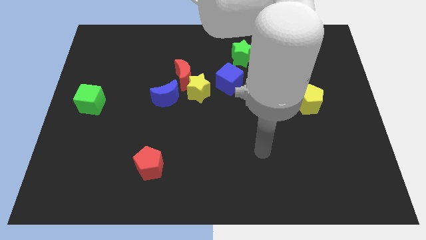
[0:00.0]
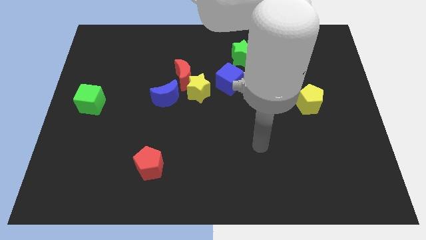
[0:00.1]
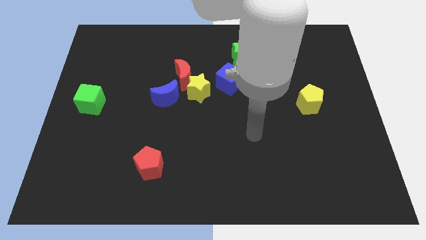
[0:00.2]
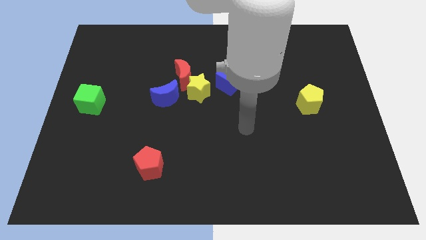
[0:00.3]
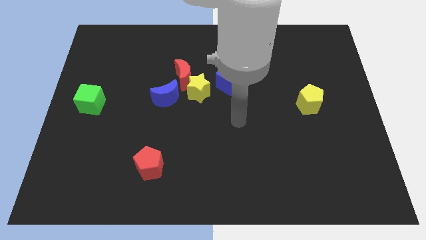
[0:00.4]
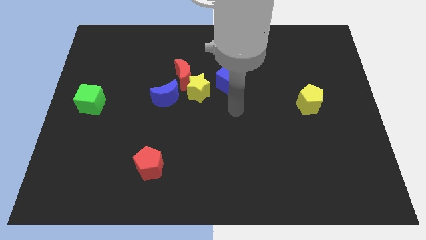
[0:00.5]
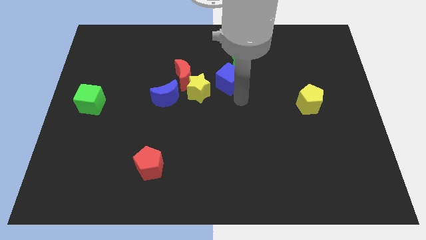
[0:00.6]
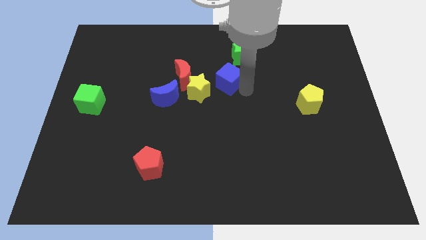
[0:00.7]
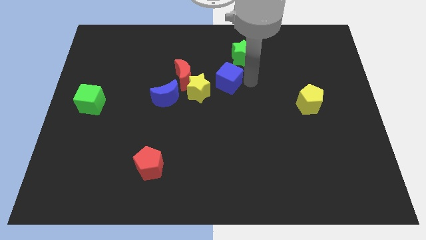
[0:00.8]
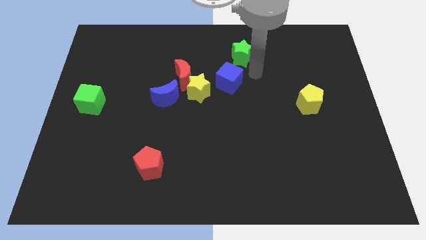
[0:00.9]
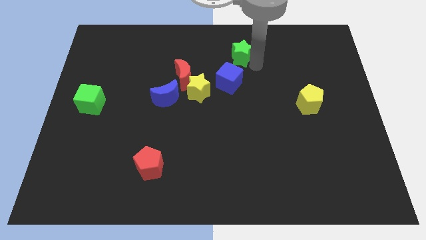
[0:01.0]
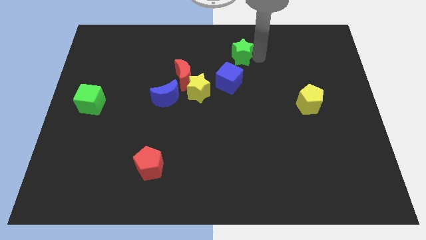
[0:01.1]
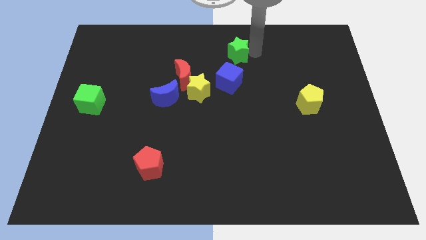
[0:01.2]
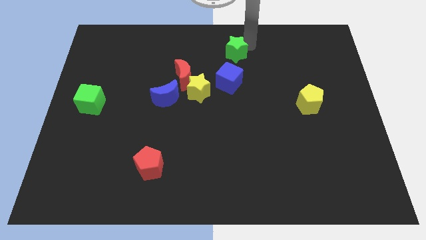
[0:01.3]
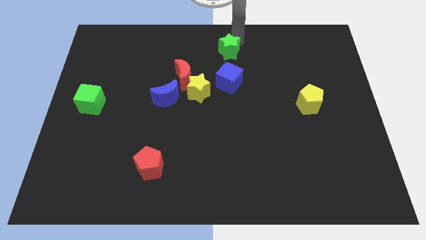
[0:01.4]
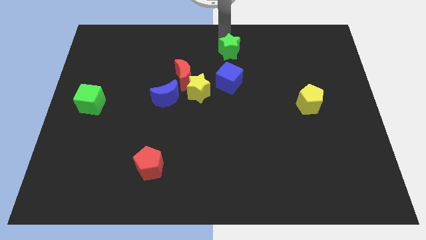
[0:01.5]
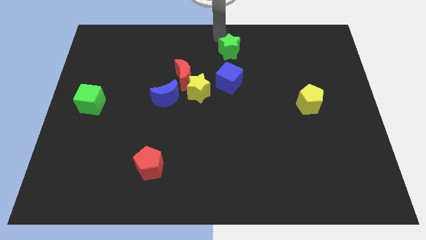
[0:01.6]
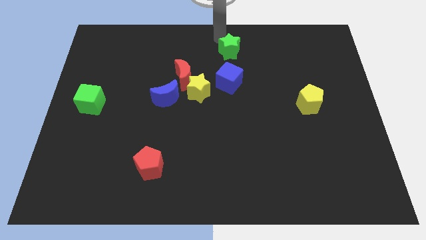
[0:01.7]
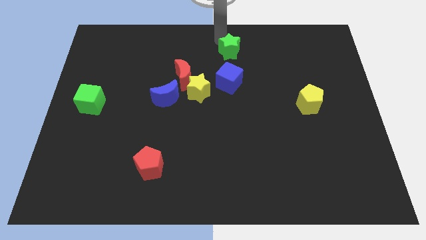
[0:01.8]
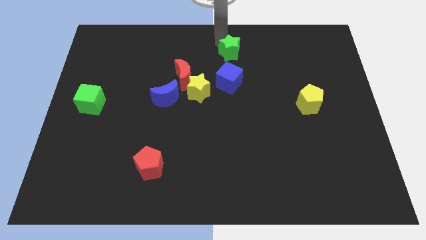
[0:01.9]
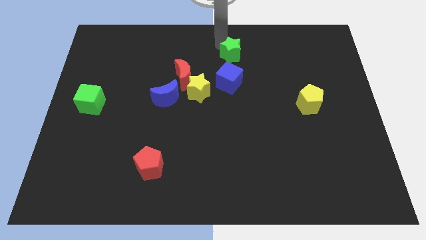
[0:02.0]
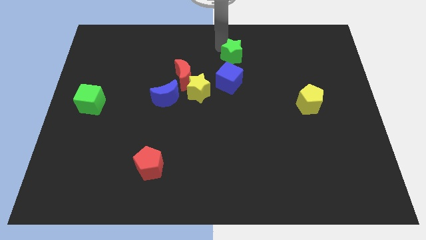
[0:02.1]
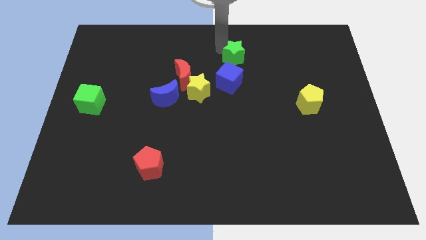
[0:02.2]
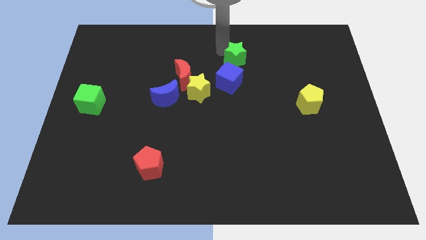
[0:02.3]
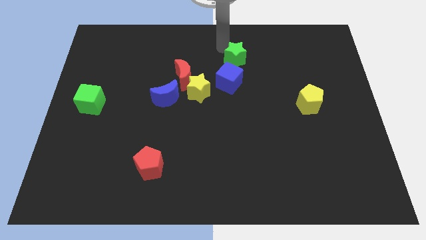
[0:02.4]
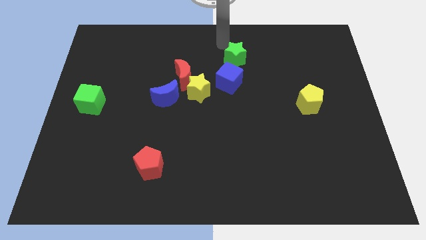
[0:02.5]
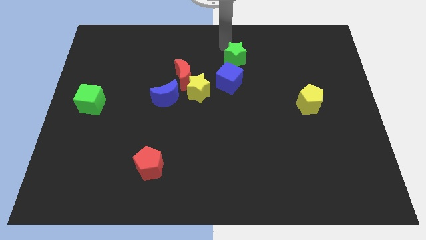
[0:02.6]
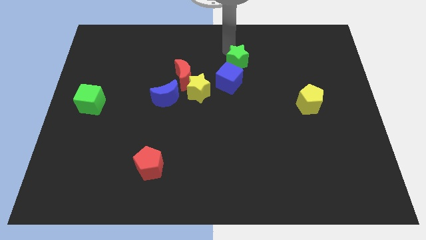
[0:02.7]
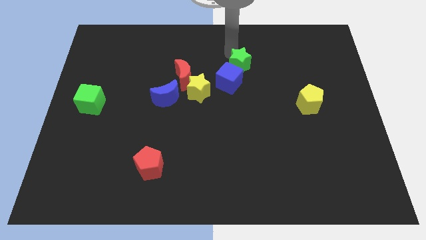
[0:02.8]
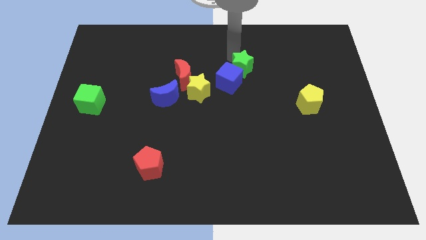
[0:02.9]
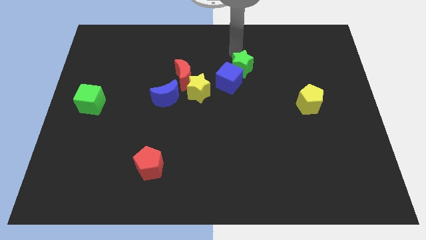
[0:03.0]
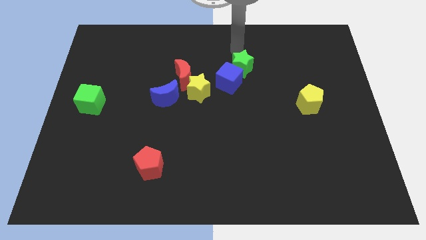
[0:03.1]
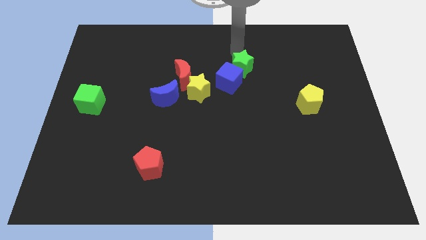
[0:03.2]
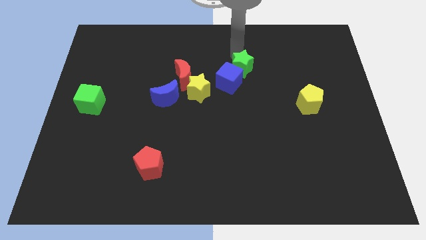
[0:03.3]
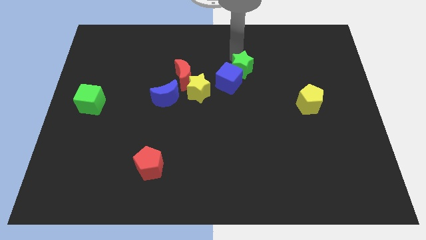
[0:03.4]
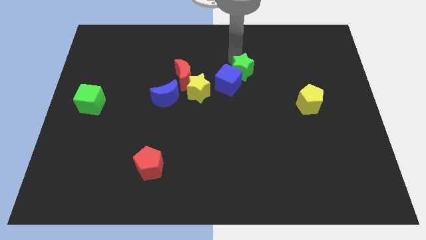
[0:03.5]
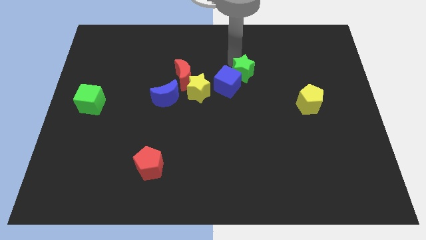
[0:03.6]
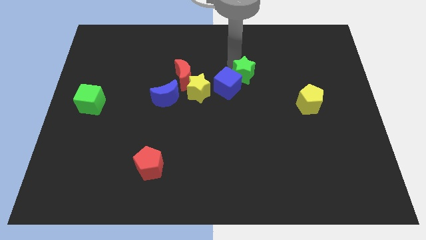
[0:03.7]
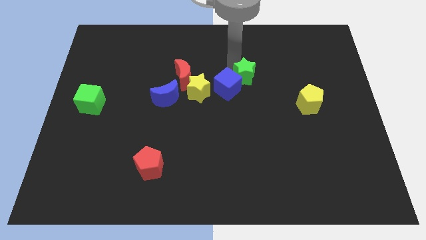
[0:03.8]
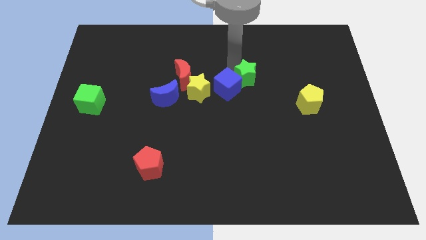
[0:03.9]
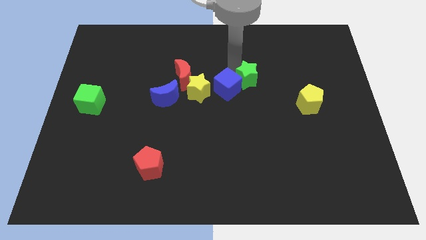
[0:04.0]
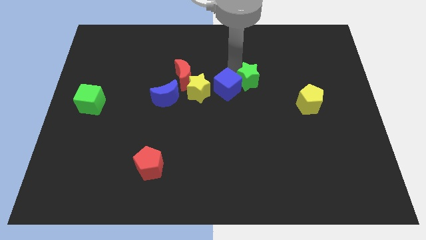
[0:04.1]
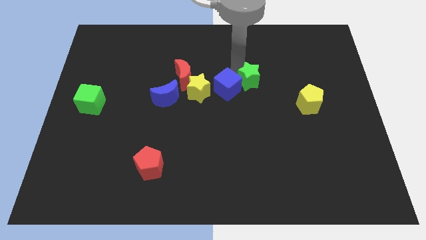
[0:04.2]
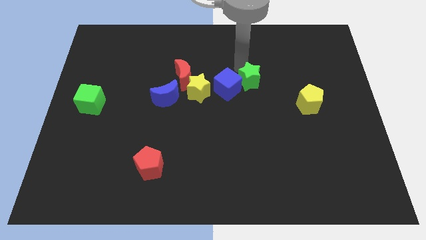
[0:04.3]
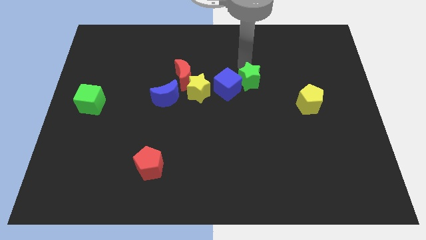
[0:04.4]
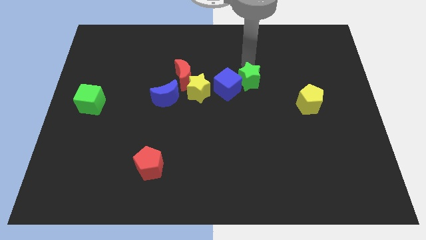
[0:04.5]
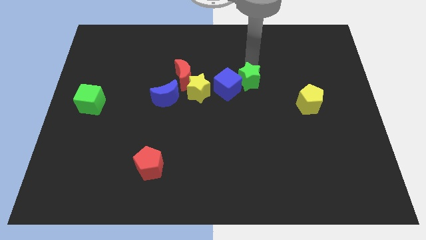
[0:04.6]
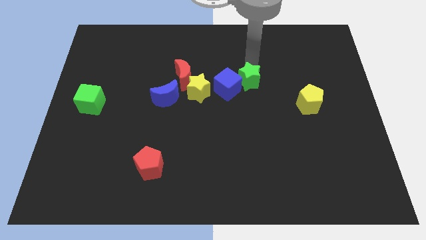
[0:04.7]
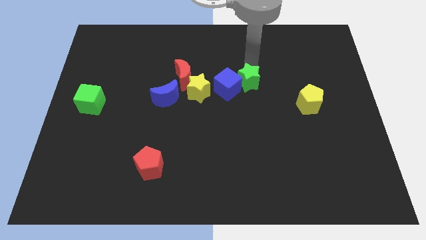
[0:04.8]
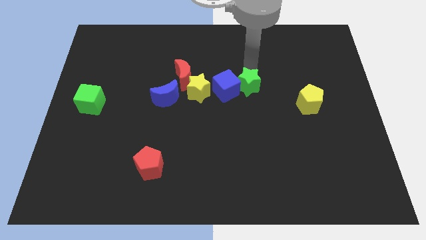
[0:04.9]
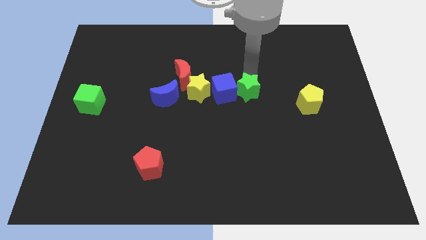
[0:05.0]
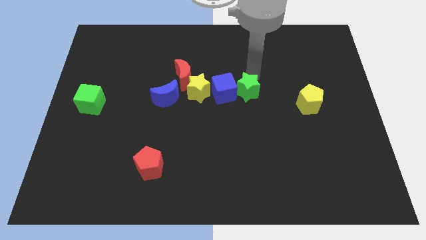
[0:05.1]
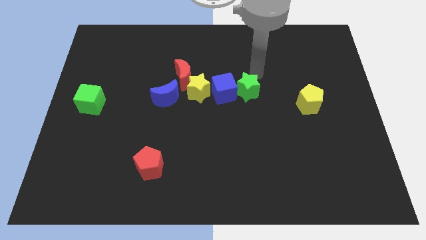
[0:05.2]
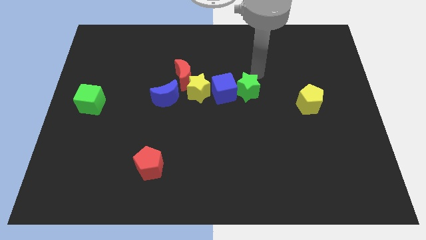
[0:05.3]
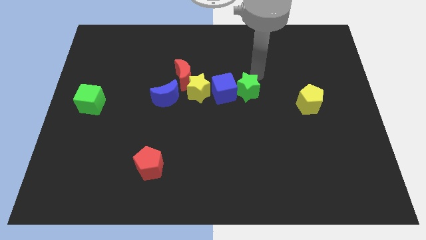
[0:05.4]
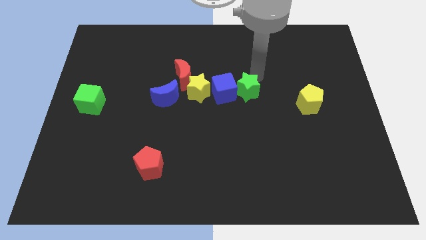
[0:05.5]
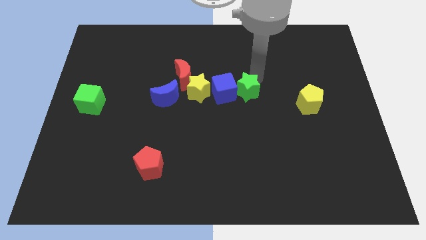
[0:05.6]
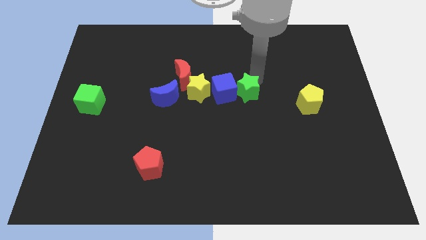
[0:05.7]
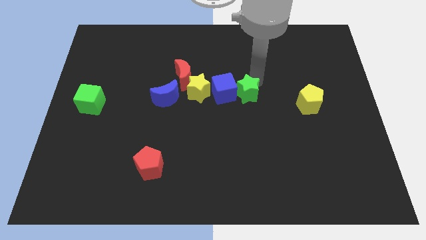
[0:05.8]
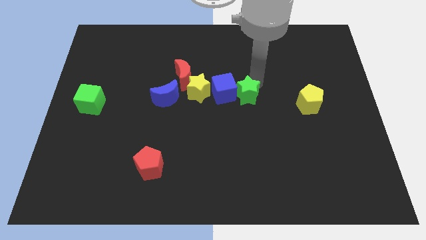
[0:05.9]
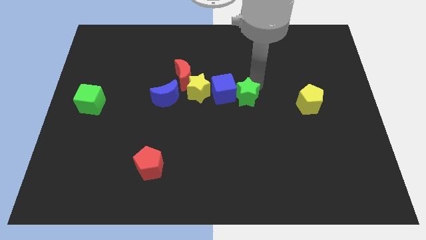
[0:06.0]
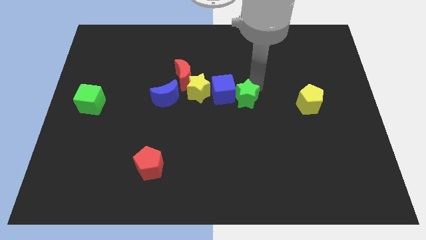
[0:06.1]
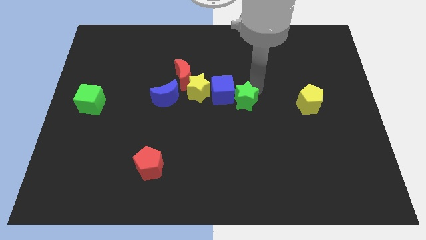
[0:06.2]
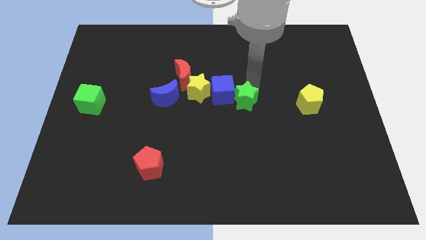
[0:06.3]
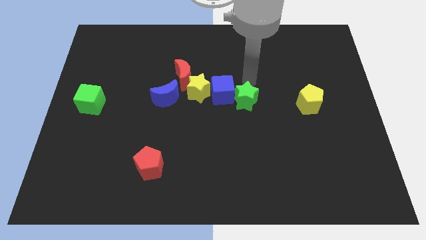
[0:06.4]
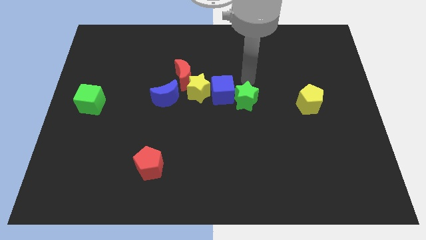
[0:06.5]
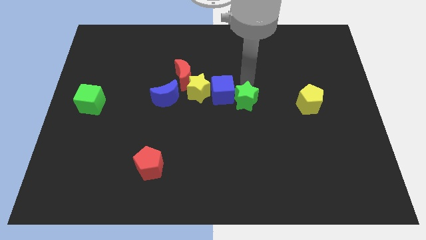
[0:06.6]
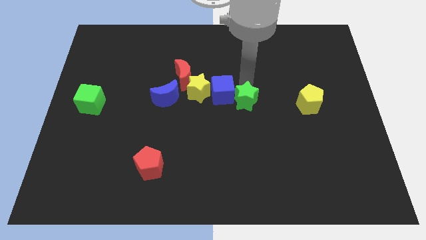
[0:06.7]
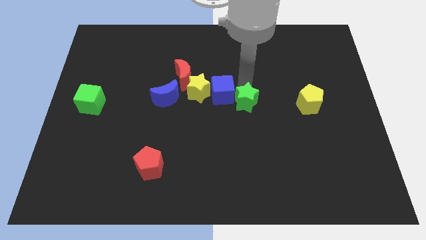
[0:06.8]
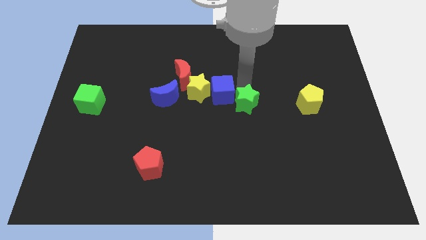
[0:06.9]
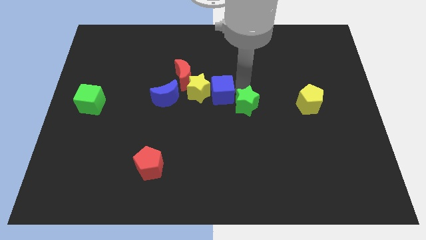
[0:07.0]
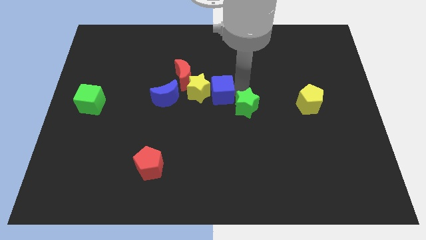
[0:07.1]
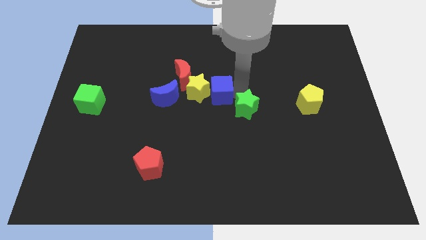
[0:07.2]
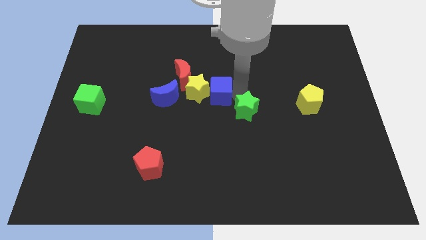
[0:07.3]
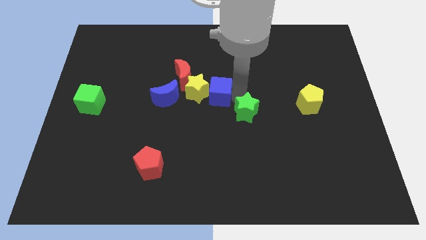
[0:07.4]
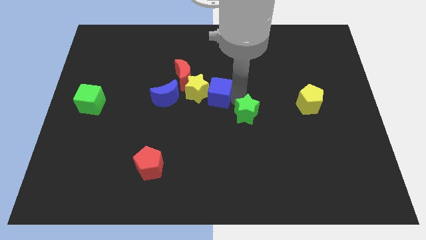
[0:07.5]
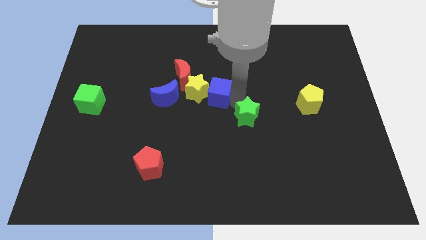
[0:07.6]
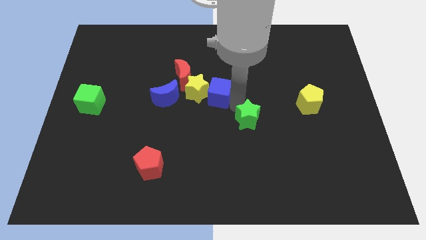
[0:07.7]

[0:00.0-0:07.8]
move the green star downwards

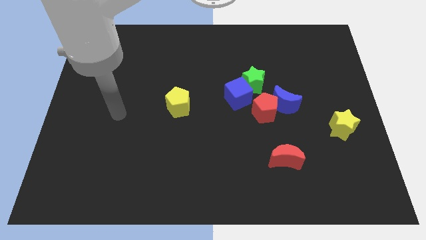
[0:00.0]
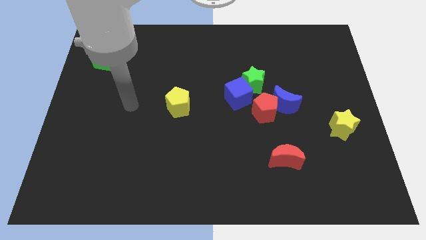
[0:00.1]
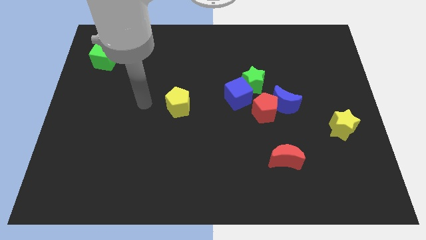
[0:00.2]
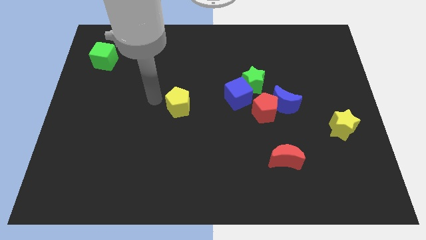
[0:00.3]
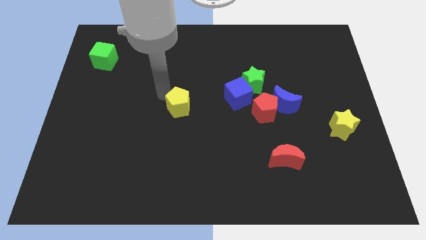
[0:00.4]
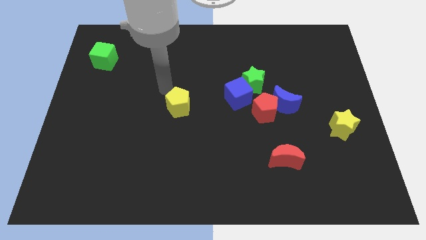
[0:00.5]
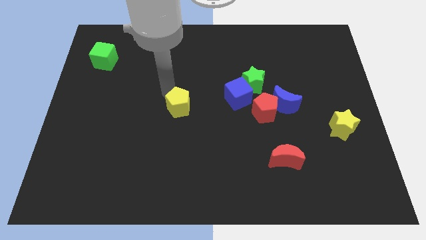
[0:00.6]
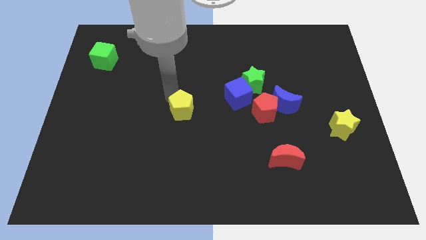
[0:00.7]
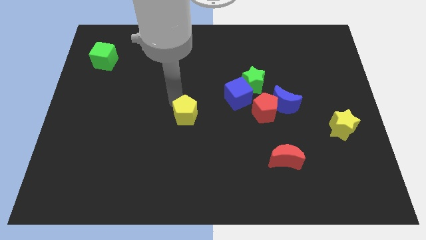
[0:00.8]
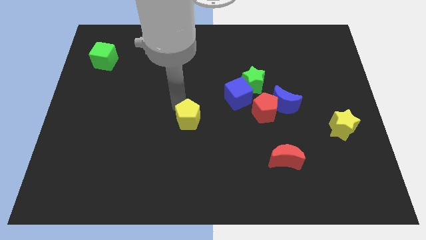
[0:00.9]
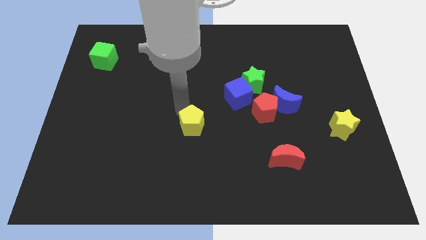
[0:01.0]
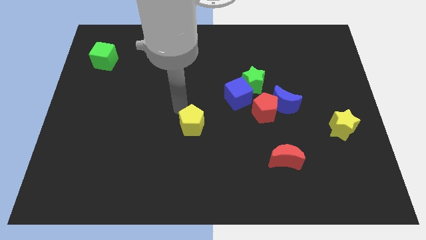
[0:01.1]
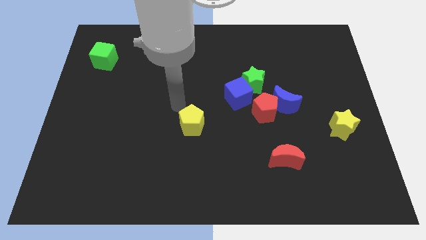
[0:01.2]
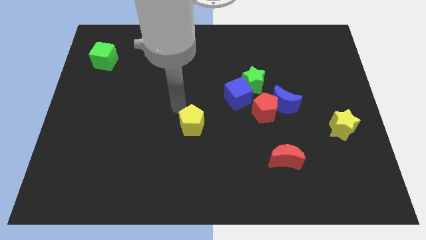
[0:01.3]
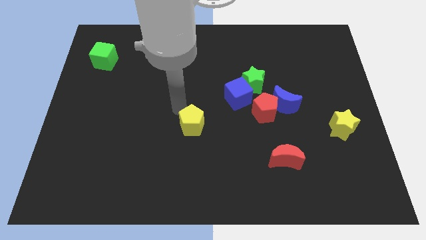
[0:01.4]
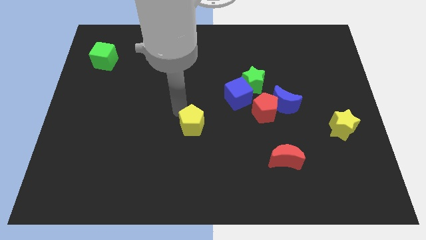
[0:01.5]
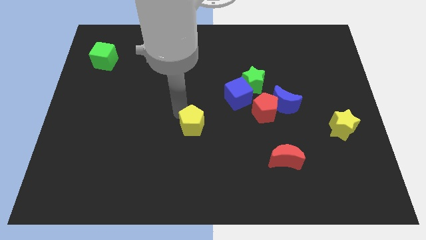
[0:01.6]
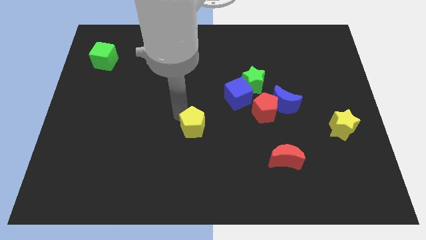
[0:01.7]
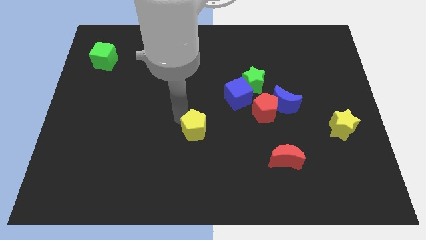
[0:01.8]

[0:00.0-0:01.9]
slightly slide the yellow pentagon diagonally down and right
